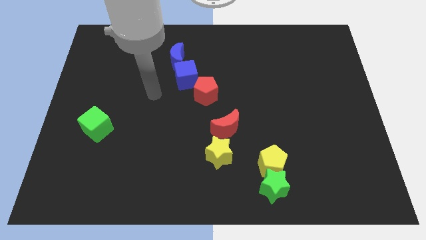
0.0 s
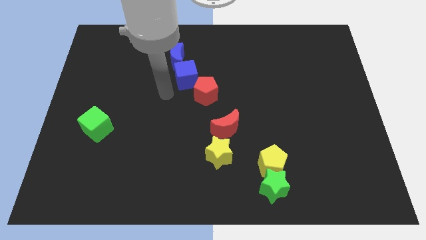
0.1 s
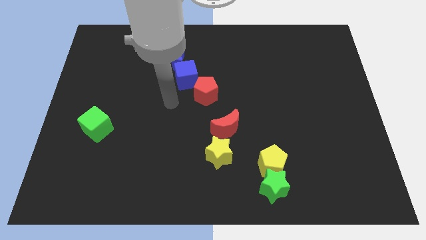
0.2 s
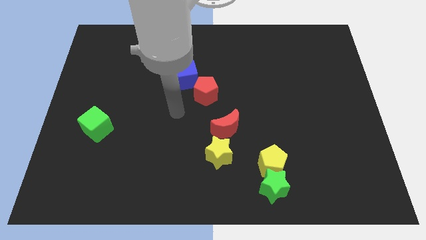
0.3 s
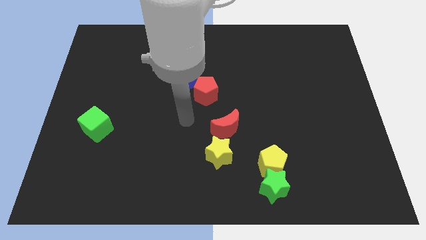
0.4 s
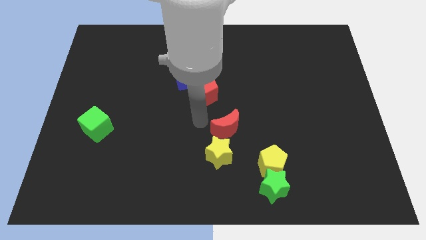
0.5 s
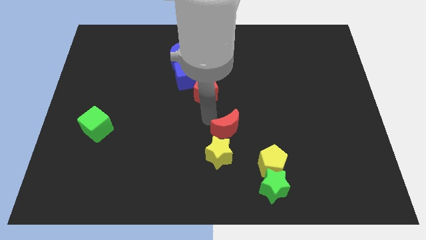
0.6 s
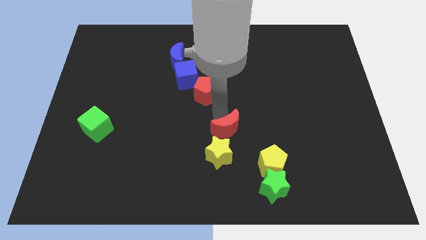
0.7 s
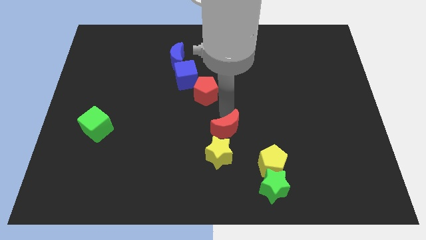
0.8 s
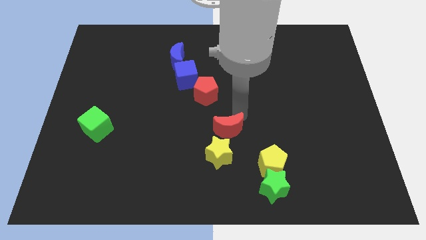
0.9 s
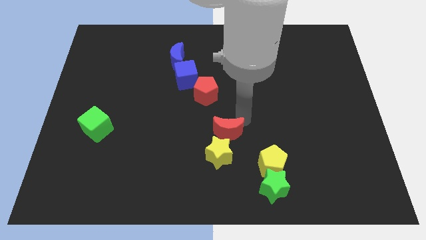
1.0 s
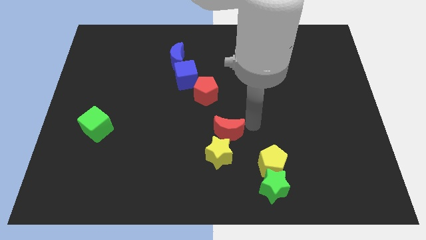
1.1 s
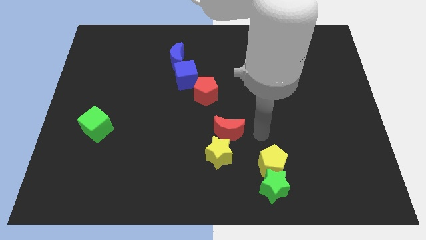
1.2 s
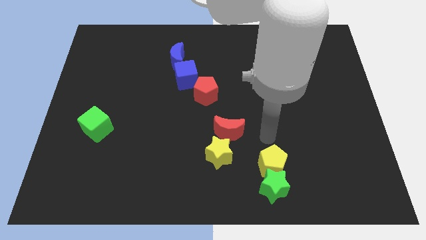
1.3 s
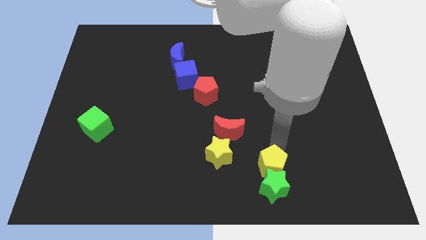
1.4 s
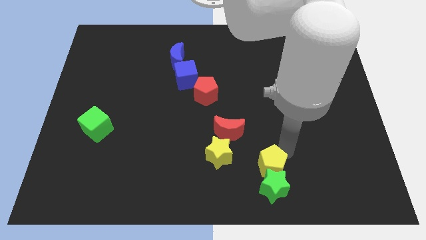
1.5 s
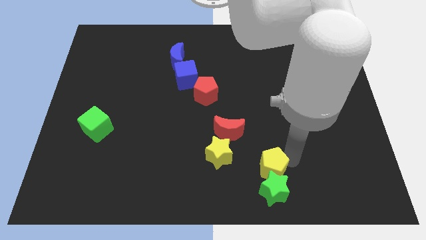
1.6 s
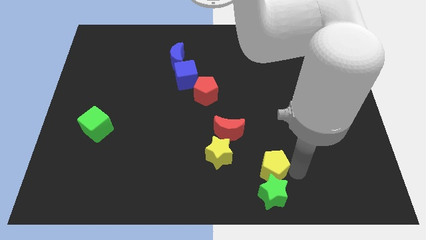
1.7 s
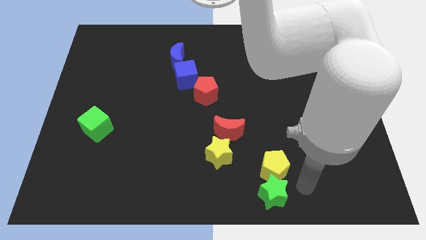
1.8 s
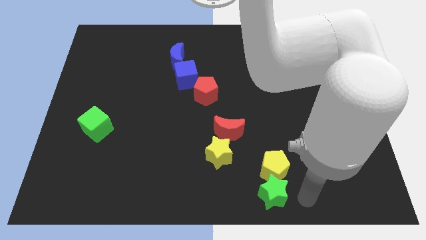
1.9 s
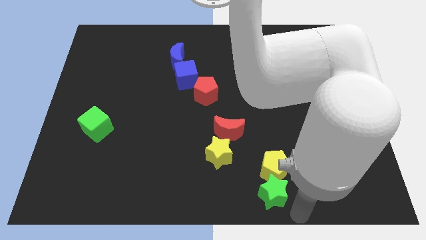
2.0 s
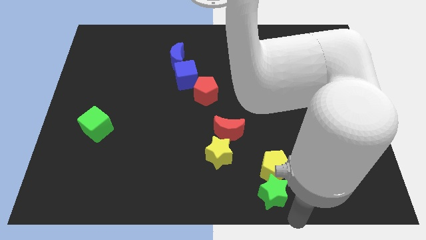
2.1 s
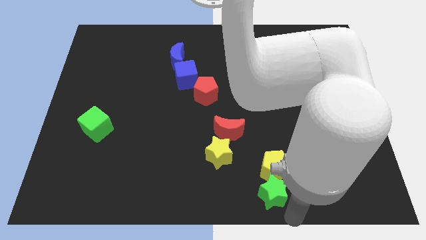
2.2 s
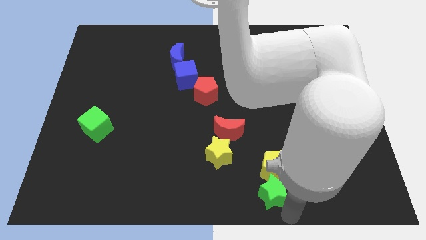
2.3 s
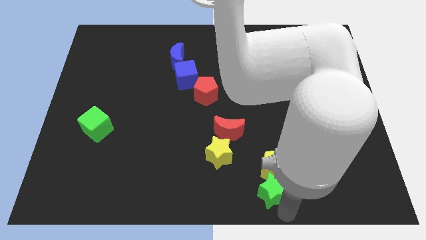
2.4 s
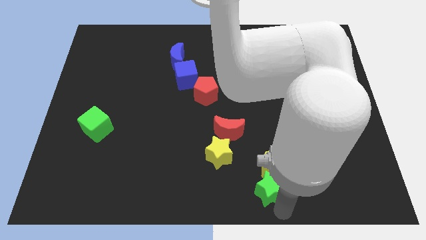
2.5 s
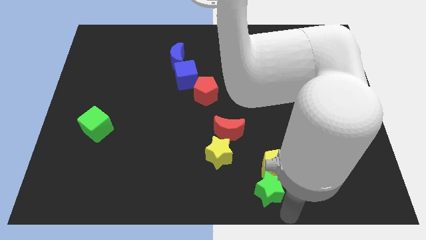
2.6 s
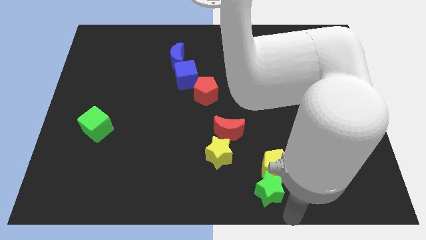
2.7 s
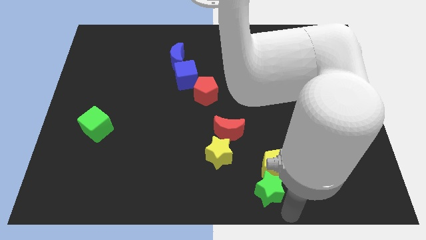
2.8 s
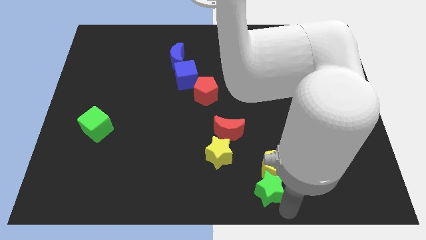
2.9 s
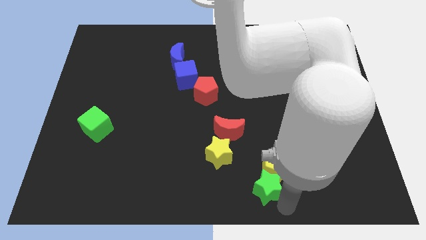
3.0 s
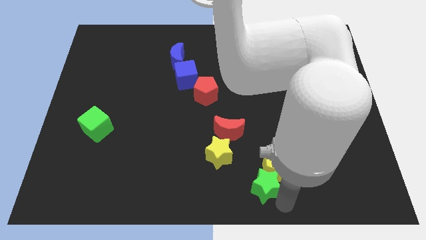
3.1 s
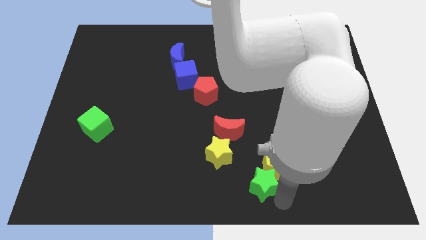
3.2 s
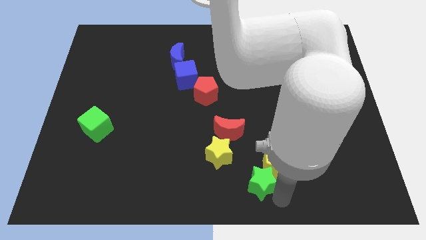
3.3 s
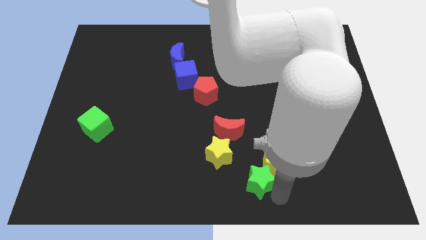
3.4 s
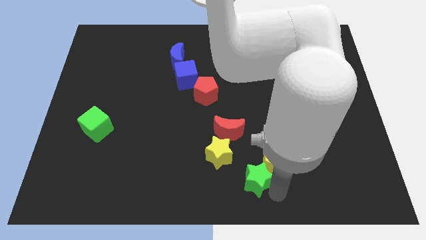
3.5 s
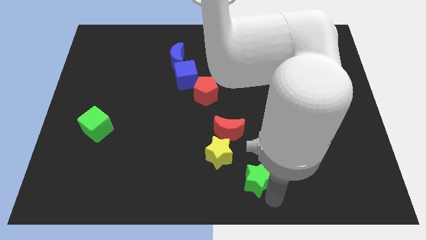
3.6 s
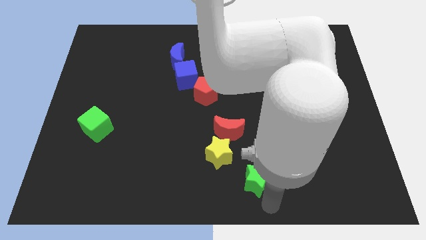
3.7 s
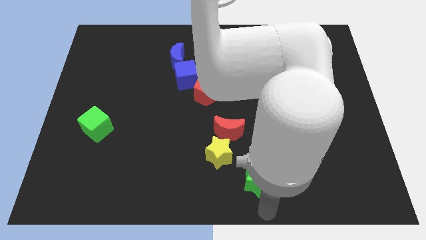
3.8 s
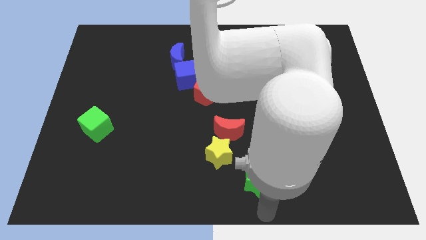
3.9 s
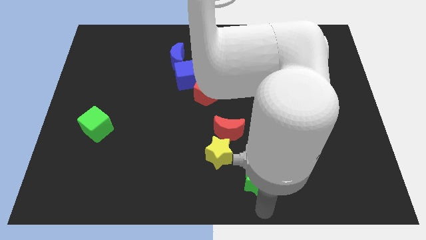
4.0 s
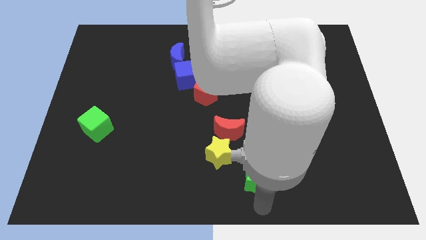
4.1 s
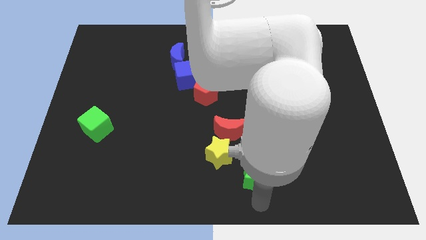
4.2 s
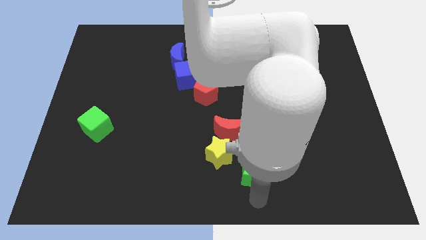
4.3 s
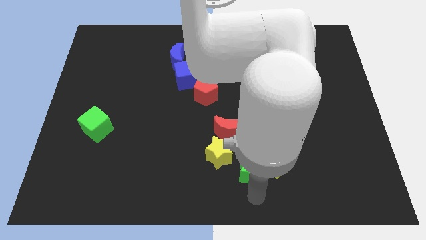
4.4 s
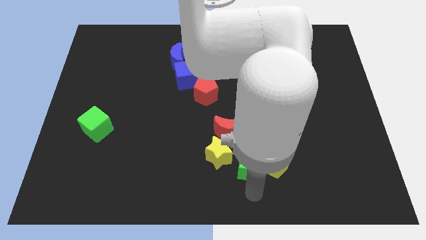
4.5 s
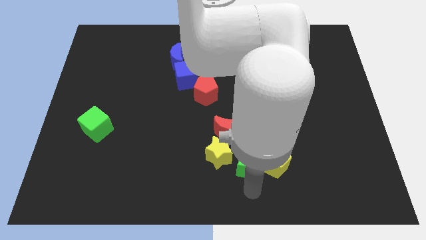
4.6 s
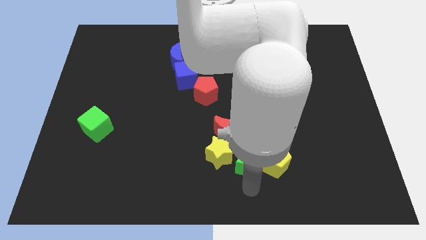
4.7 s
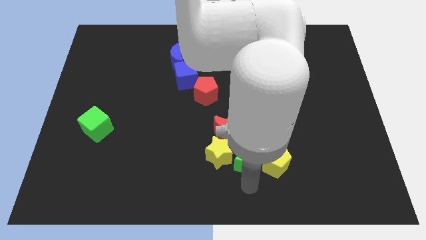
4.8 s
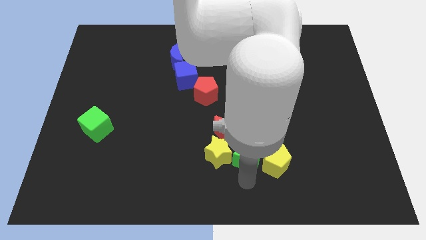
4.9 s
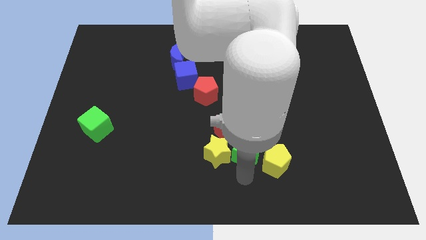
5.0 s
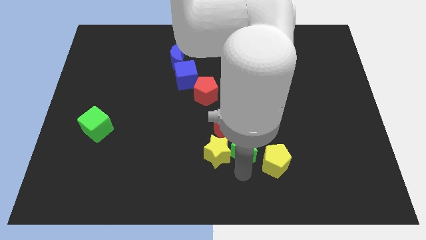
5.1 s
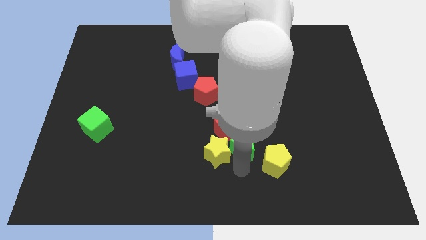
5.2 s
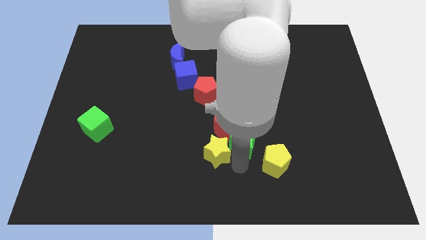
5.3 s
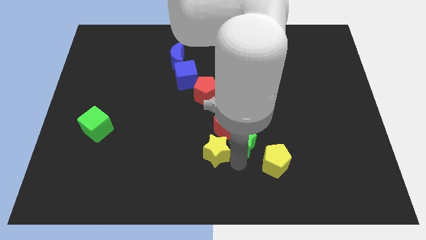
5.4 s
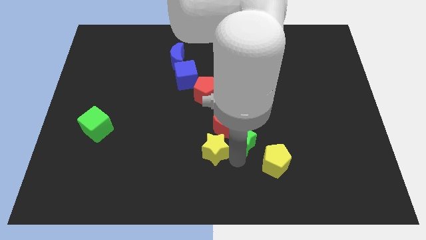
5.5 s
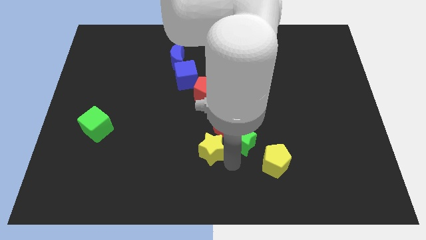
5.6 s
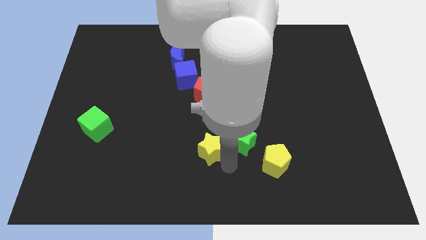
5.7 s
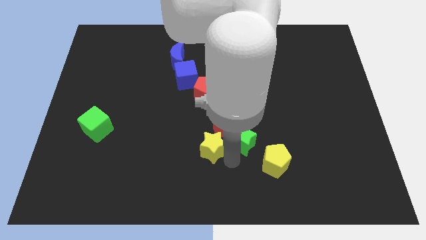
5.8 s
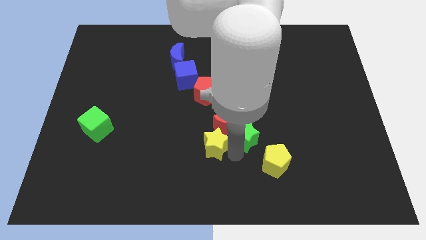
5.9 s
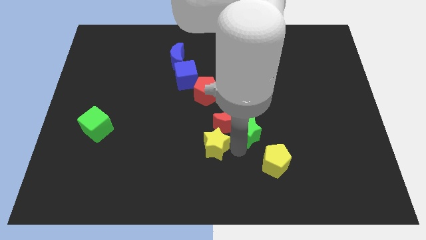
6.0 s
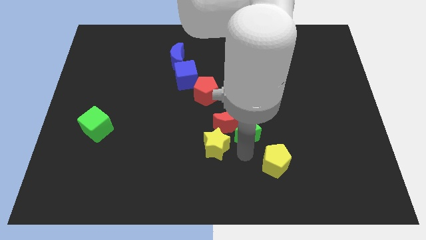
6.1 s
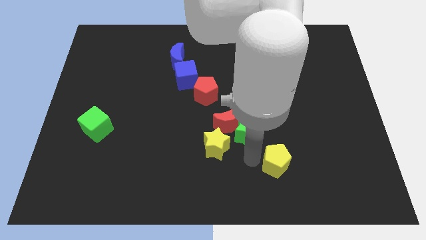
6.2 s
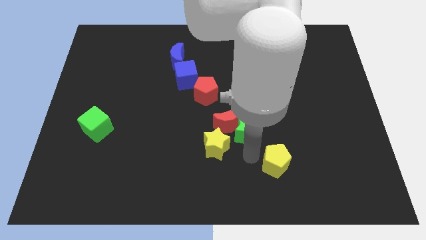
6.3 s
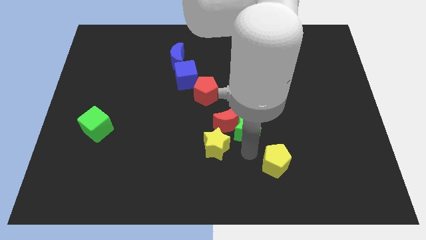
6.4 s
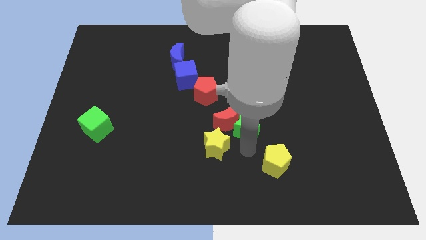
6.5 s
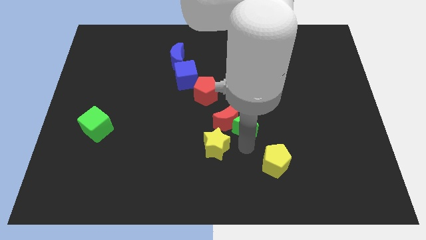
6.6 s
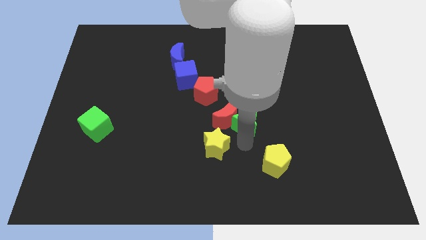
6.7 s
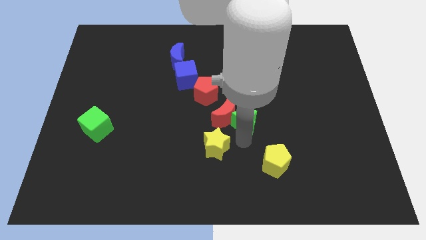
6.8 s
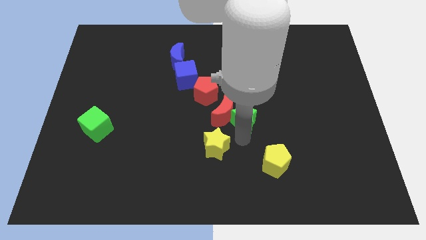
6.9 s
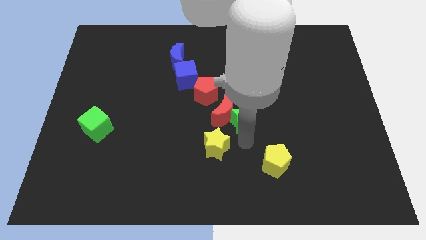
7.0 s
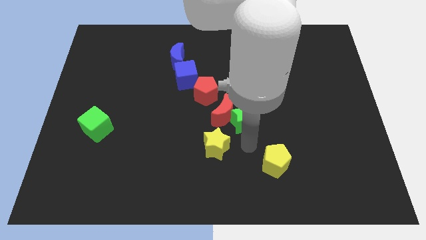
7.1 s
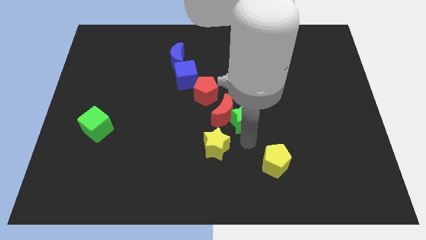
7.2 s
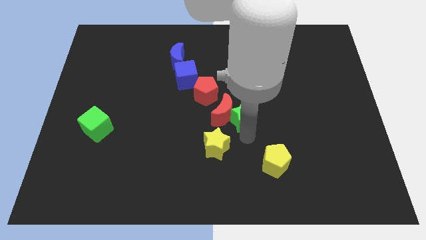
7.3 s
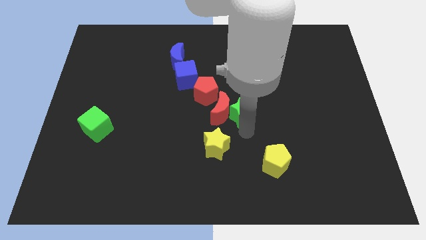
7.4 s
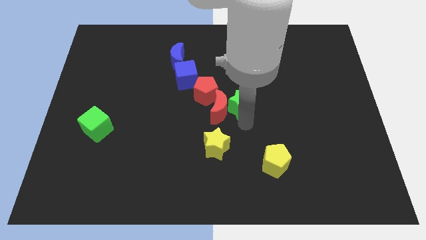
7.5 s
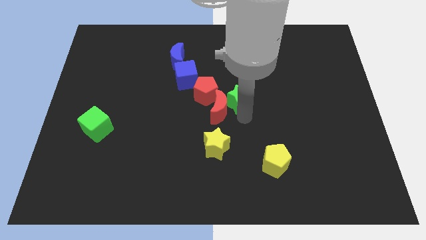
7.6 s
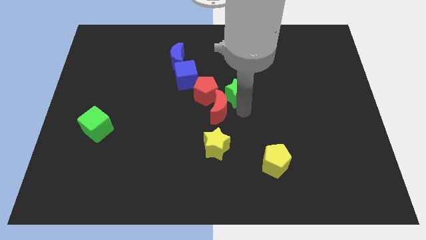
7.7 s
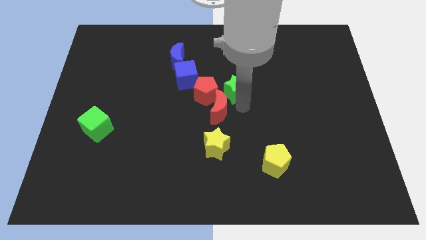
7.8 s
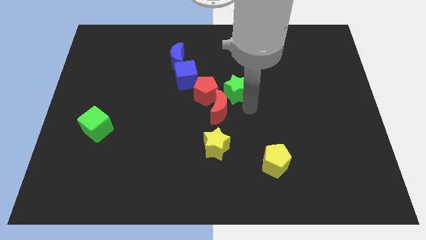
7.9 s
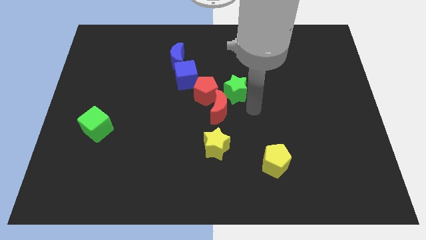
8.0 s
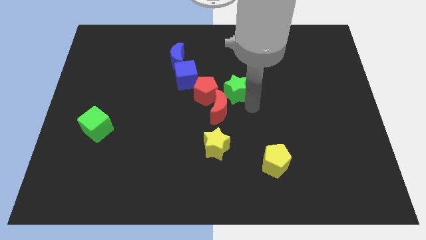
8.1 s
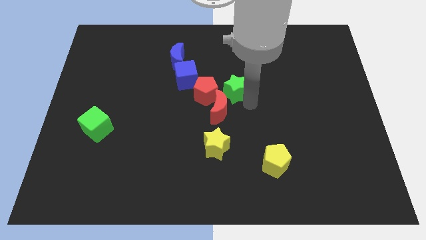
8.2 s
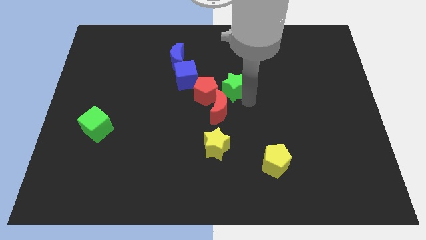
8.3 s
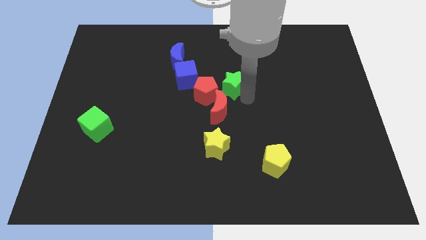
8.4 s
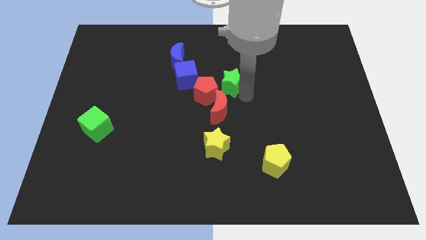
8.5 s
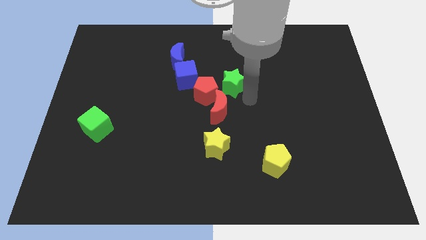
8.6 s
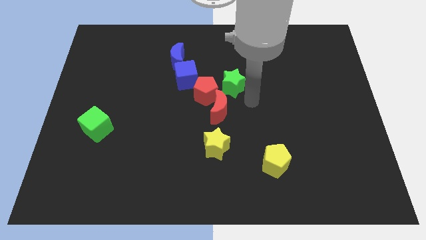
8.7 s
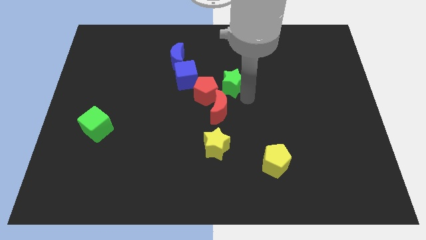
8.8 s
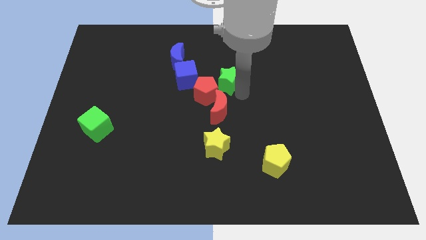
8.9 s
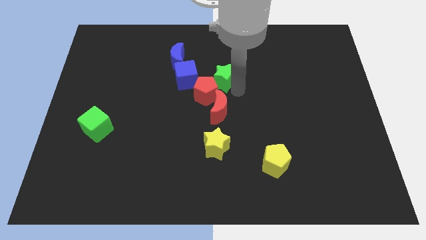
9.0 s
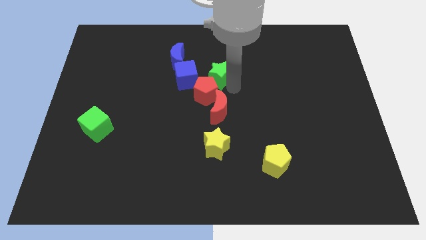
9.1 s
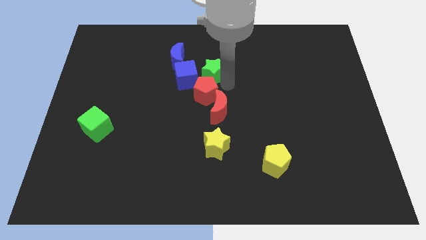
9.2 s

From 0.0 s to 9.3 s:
push the green star to the top right of the blue cube
